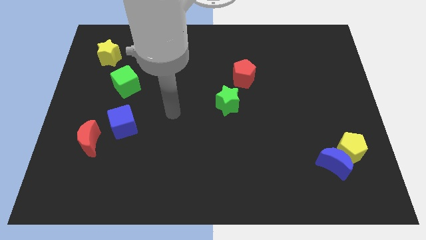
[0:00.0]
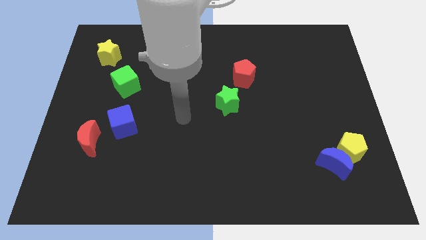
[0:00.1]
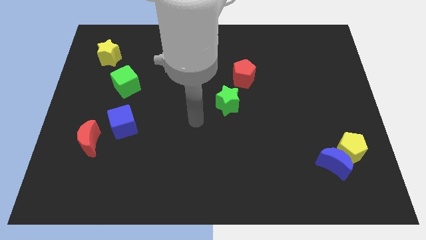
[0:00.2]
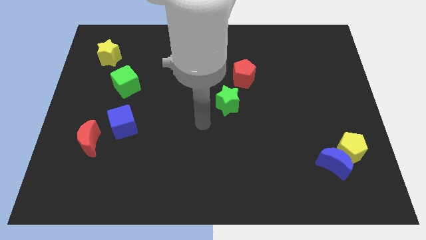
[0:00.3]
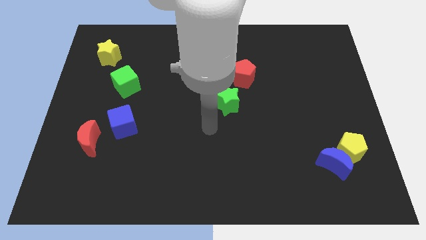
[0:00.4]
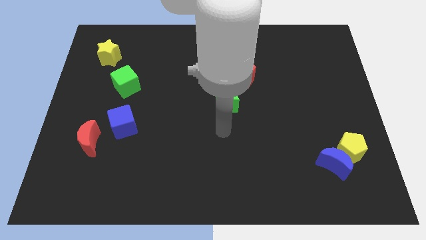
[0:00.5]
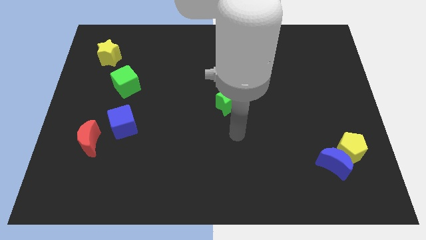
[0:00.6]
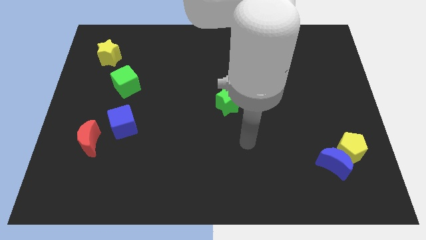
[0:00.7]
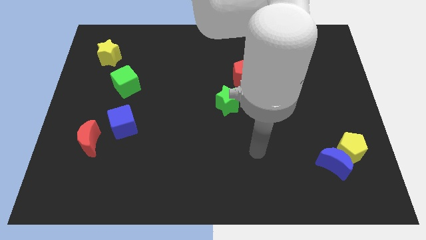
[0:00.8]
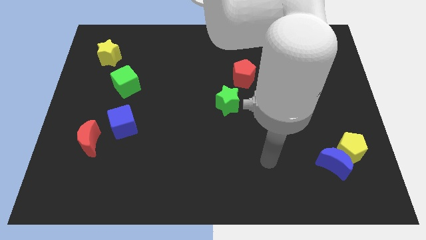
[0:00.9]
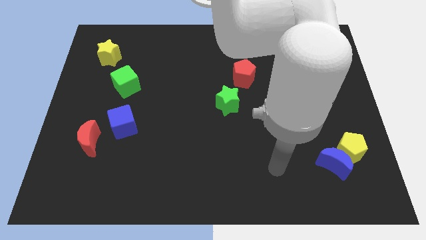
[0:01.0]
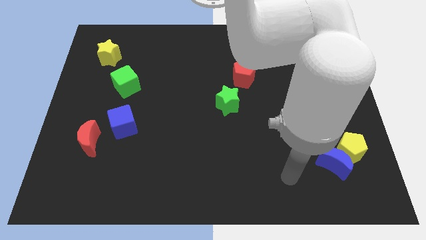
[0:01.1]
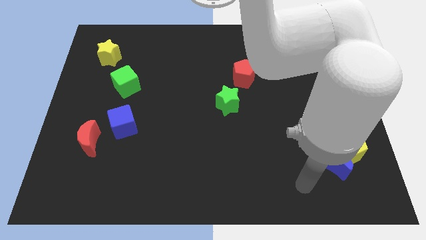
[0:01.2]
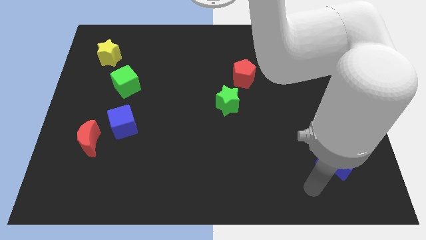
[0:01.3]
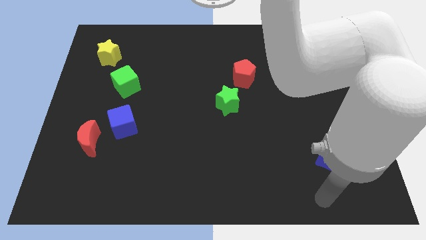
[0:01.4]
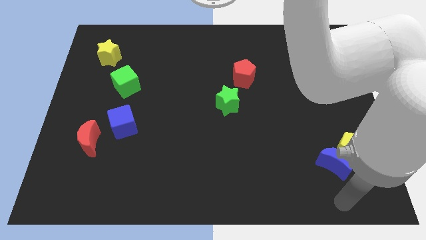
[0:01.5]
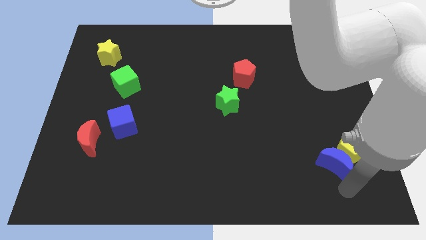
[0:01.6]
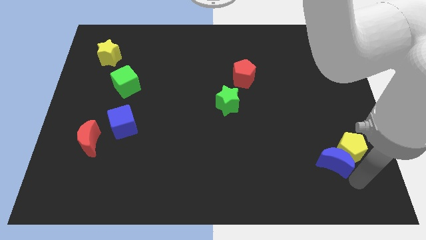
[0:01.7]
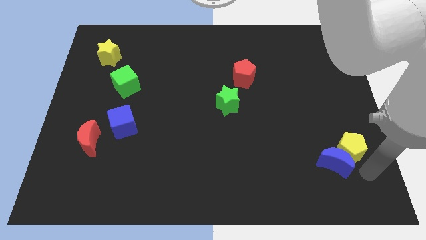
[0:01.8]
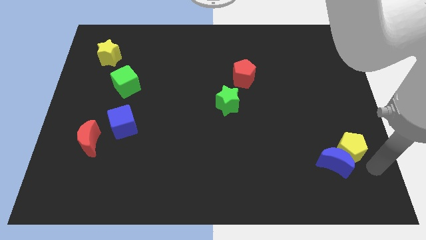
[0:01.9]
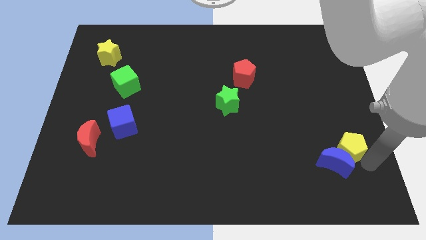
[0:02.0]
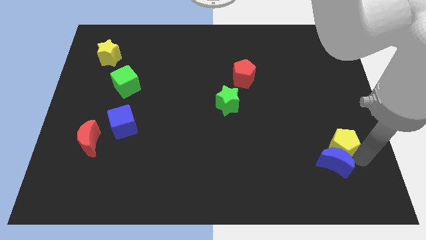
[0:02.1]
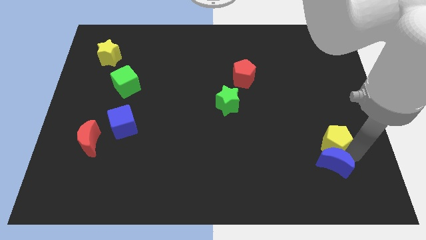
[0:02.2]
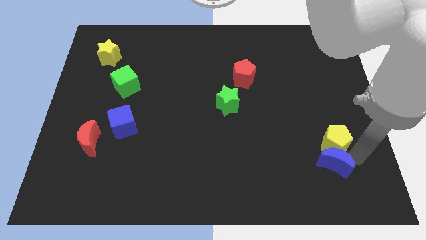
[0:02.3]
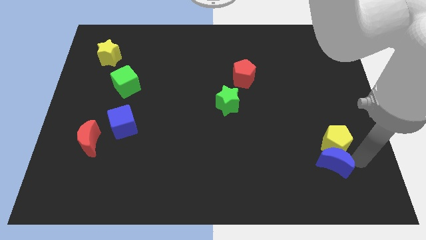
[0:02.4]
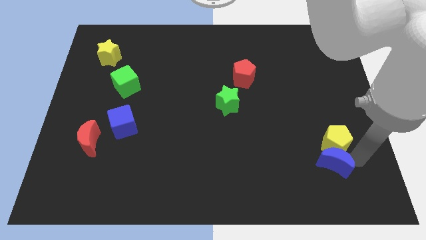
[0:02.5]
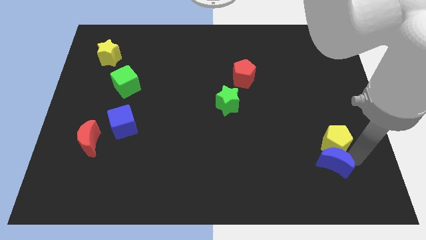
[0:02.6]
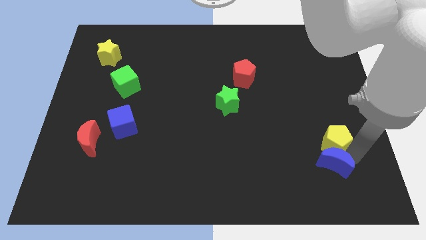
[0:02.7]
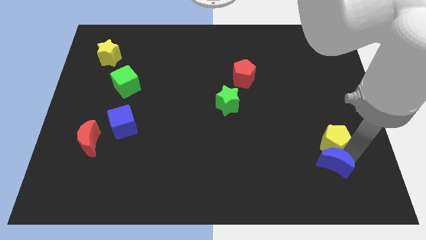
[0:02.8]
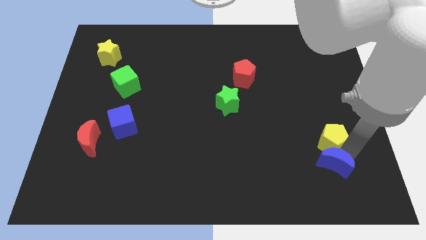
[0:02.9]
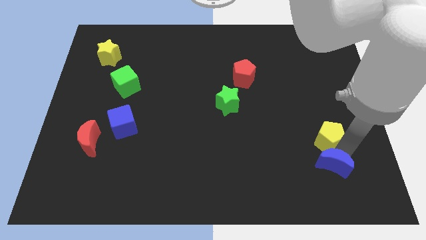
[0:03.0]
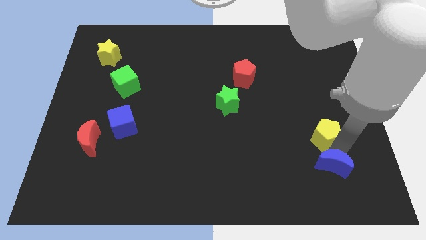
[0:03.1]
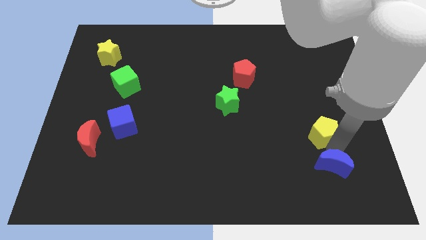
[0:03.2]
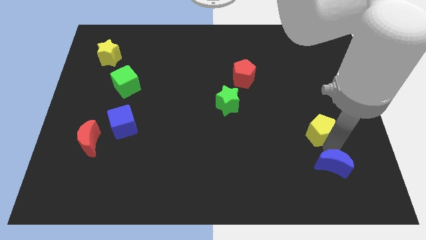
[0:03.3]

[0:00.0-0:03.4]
push the yellow pentagon slightly diagonally upwards and to the left

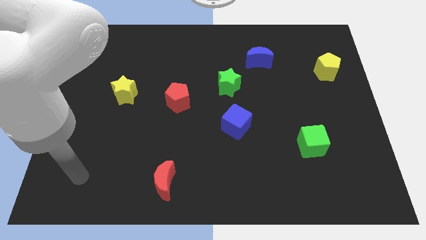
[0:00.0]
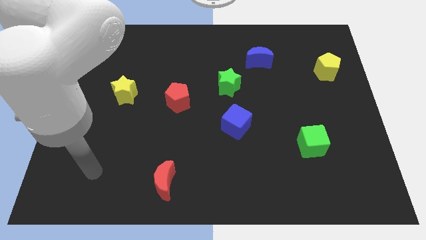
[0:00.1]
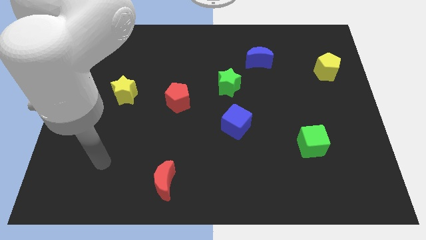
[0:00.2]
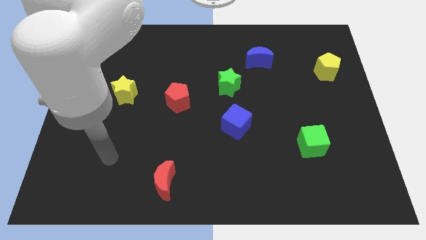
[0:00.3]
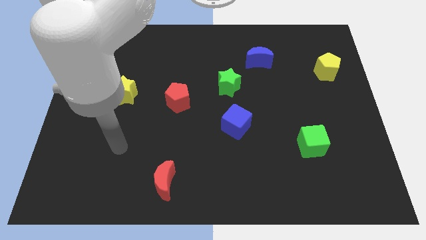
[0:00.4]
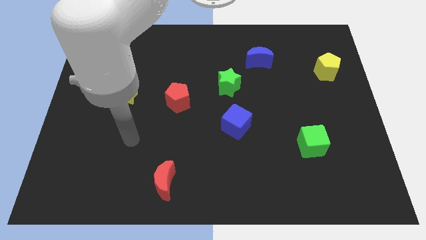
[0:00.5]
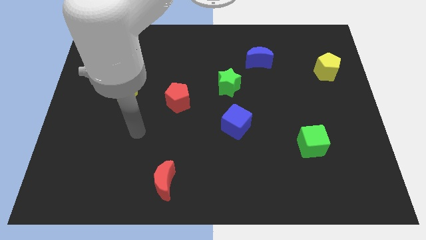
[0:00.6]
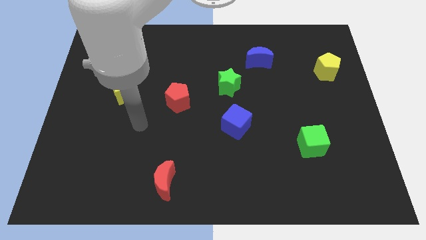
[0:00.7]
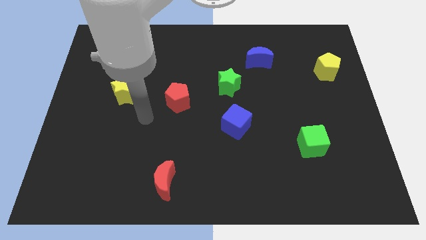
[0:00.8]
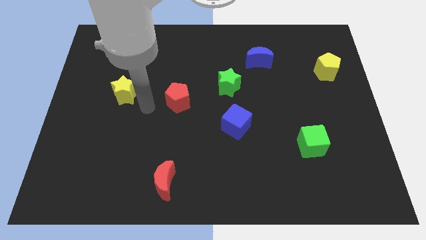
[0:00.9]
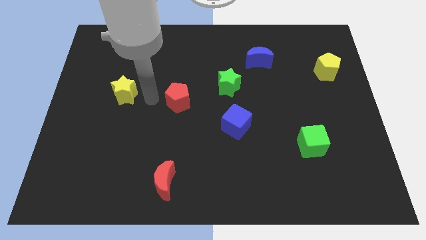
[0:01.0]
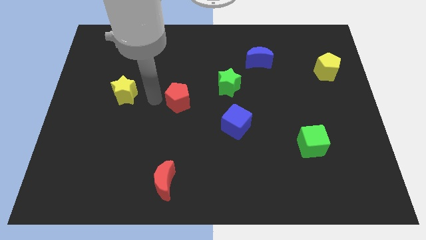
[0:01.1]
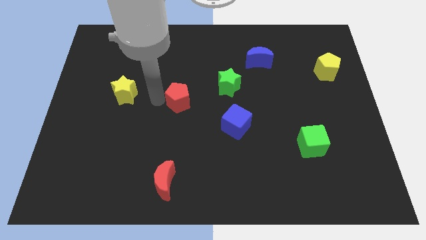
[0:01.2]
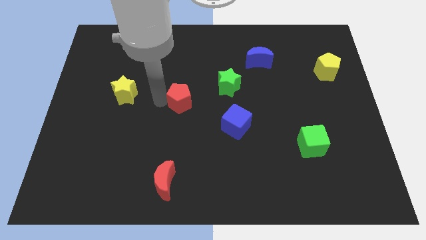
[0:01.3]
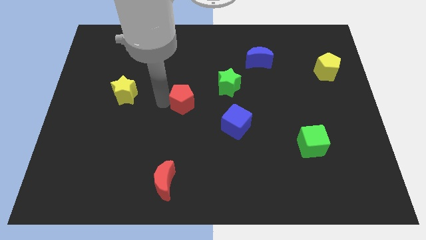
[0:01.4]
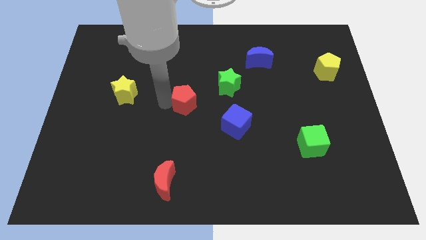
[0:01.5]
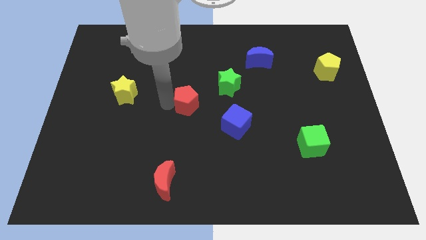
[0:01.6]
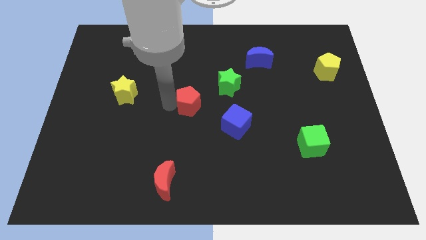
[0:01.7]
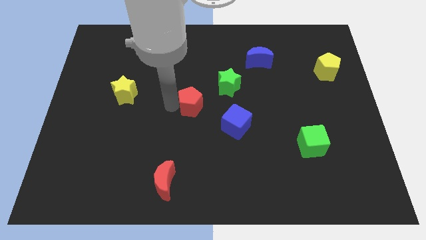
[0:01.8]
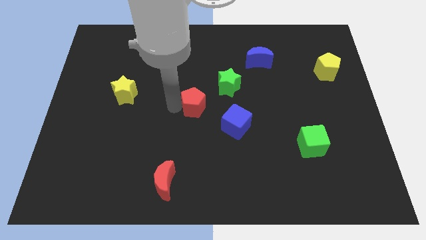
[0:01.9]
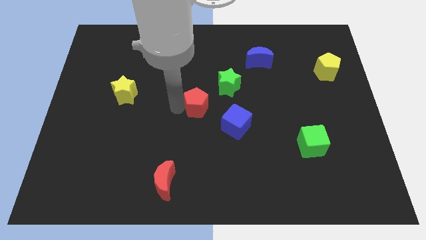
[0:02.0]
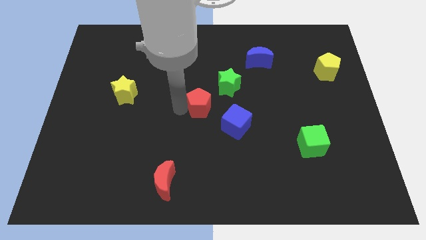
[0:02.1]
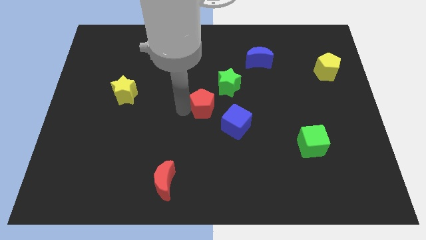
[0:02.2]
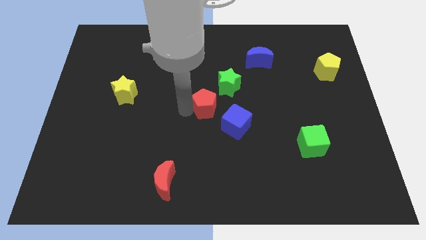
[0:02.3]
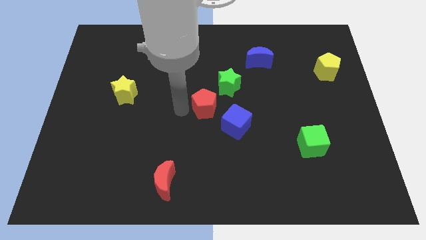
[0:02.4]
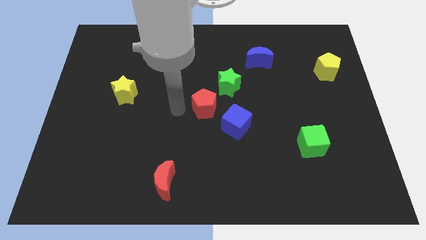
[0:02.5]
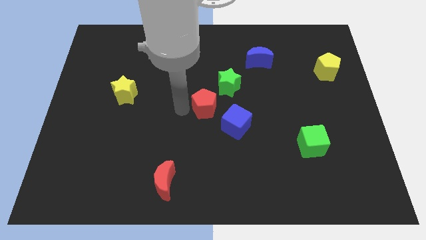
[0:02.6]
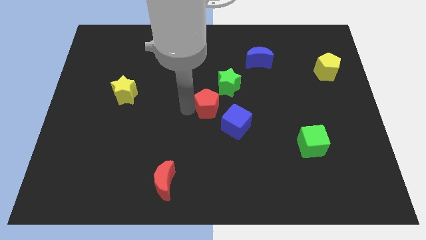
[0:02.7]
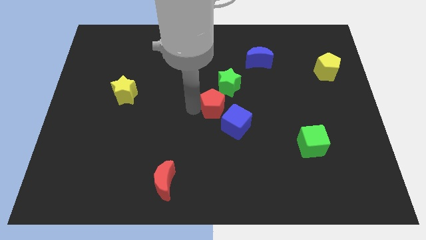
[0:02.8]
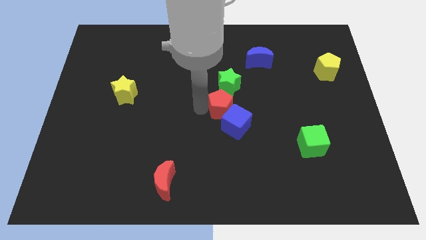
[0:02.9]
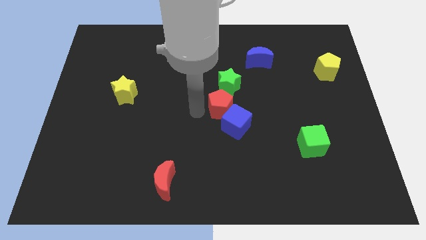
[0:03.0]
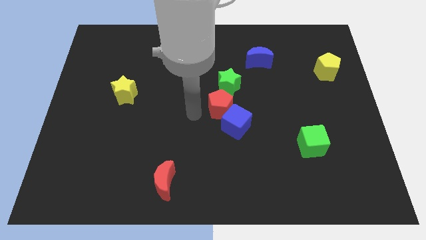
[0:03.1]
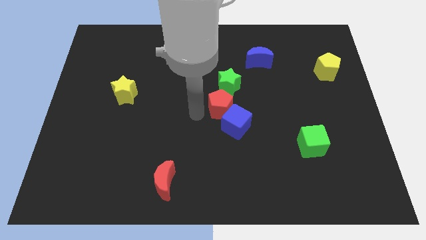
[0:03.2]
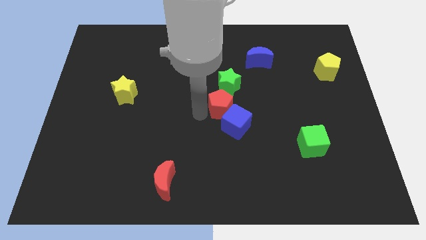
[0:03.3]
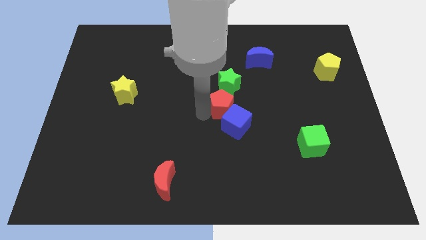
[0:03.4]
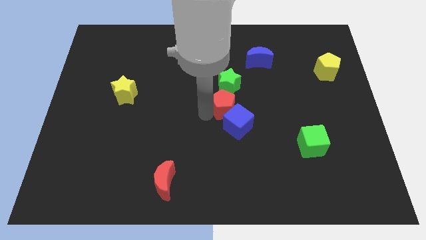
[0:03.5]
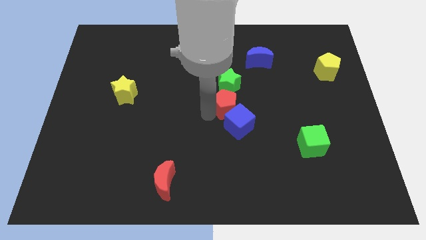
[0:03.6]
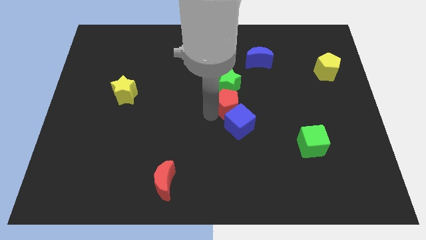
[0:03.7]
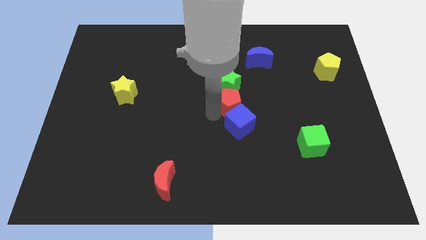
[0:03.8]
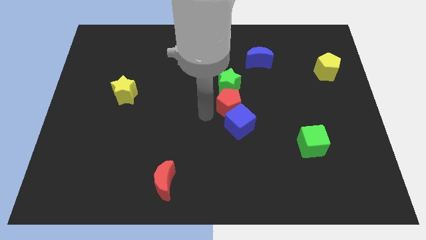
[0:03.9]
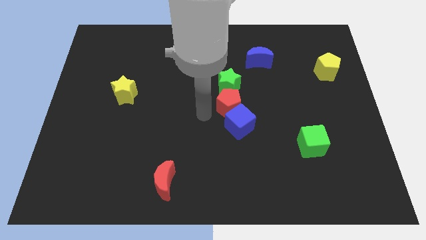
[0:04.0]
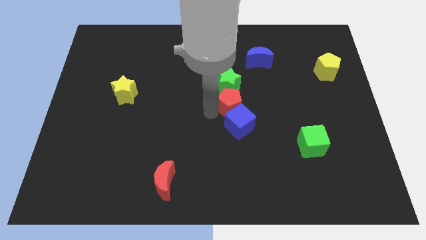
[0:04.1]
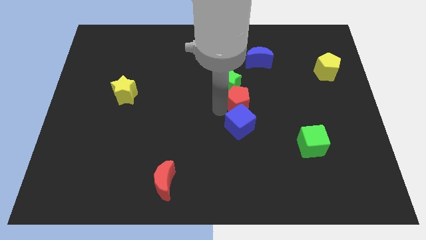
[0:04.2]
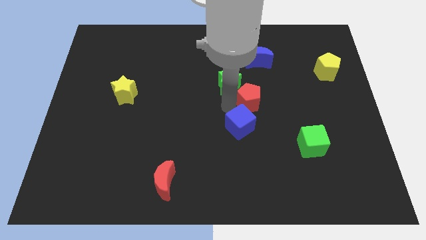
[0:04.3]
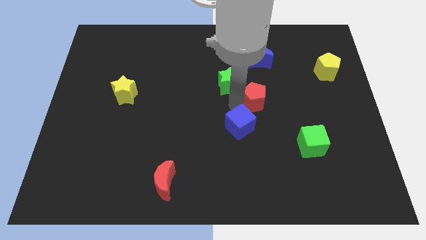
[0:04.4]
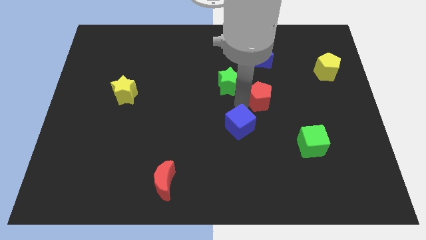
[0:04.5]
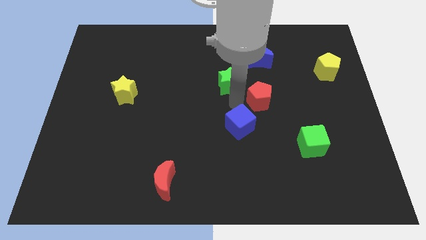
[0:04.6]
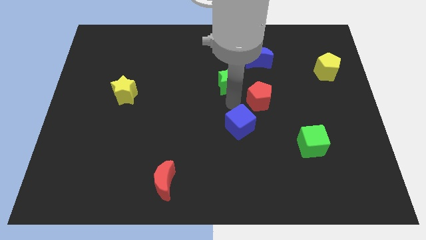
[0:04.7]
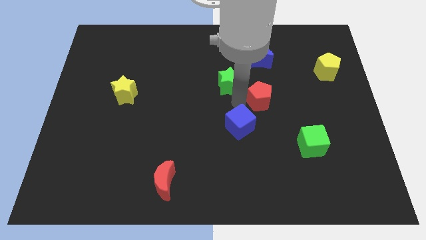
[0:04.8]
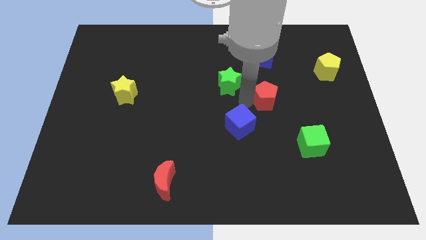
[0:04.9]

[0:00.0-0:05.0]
slide the red pentagon right
